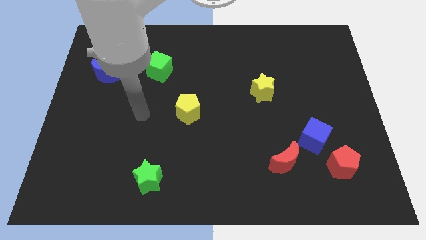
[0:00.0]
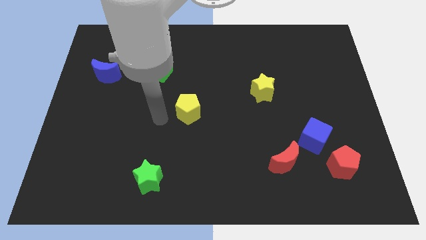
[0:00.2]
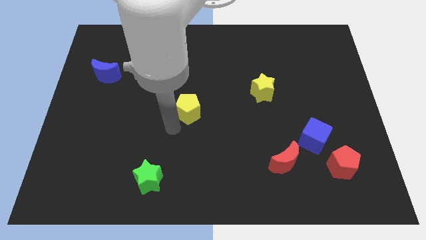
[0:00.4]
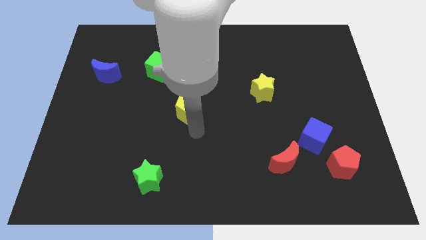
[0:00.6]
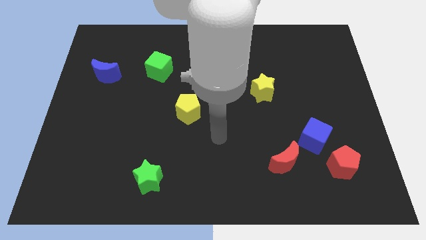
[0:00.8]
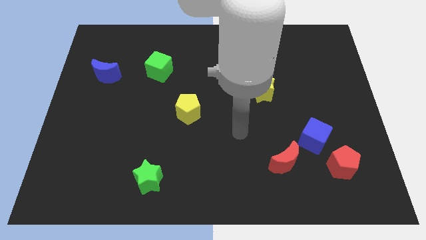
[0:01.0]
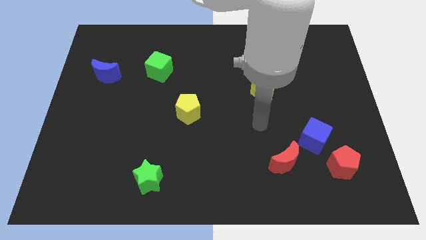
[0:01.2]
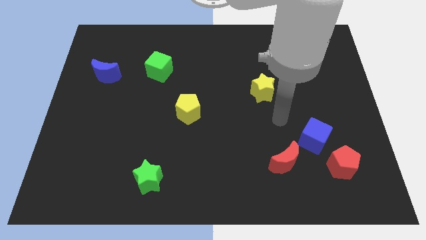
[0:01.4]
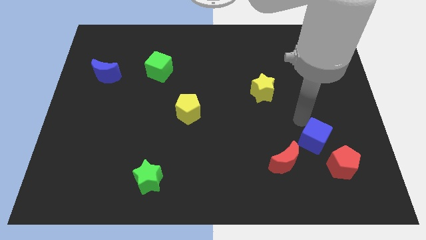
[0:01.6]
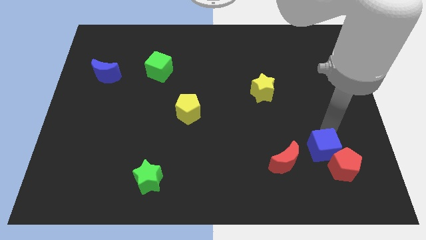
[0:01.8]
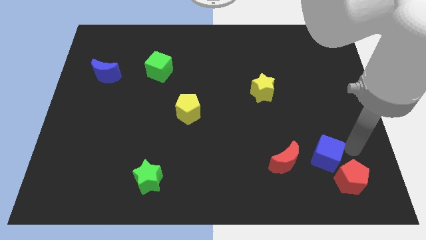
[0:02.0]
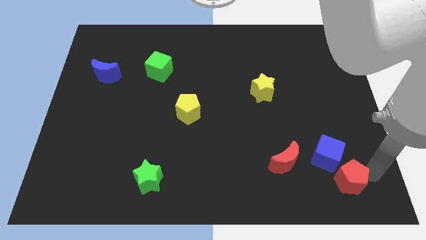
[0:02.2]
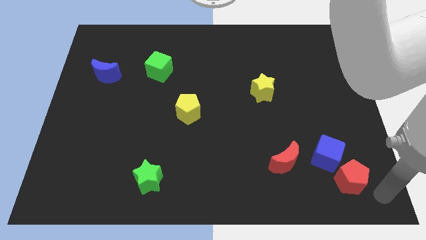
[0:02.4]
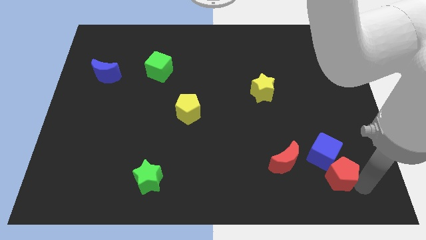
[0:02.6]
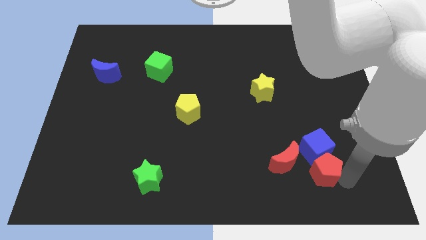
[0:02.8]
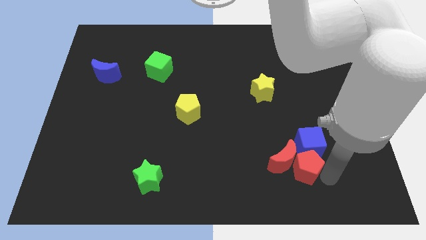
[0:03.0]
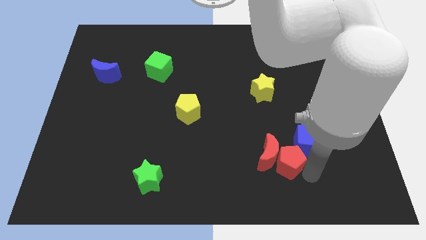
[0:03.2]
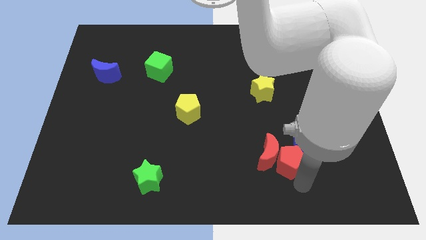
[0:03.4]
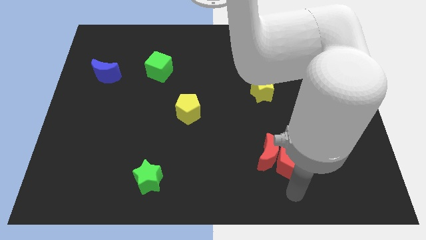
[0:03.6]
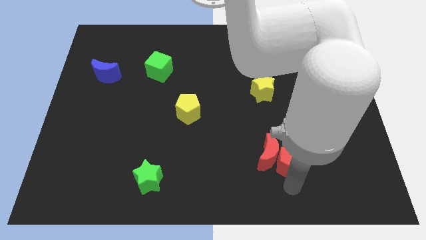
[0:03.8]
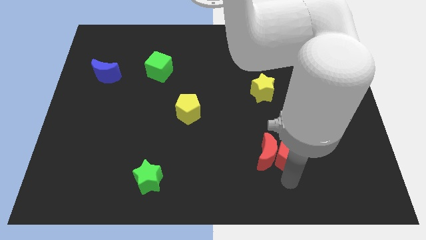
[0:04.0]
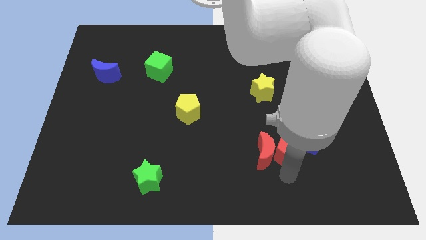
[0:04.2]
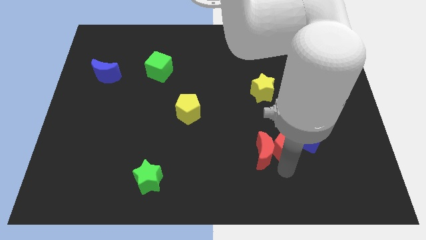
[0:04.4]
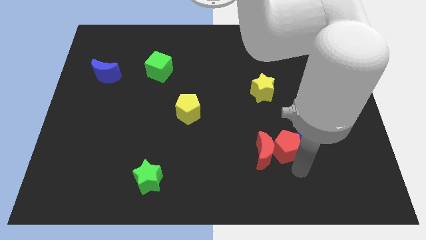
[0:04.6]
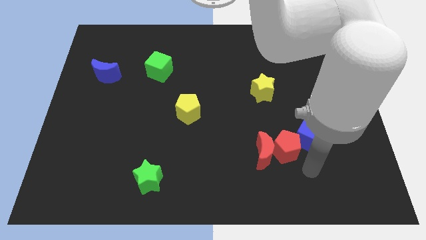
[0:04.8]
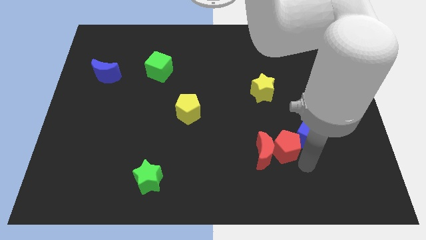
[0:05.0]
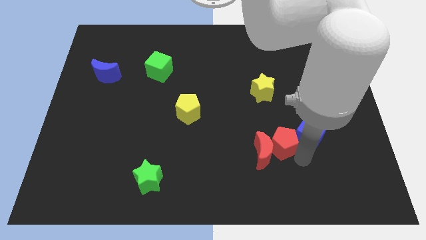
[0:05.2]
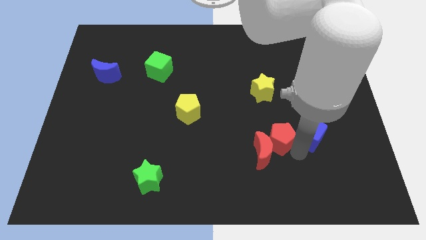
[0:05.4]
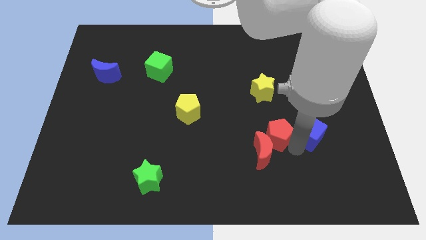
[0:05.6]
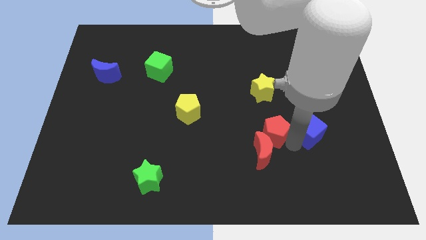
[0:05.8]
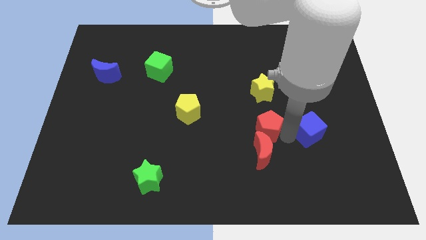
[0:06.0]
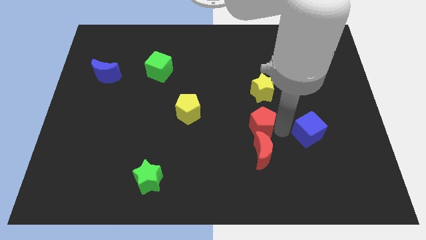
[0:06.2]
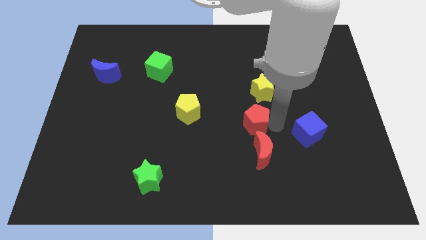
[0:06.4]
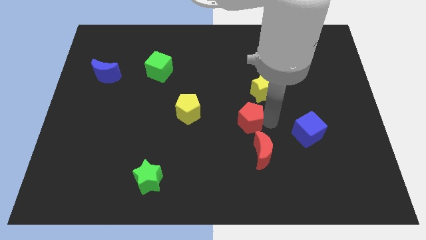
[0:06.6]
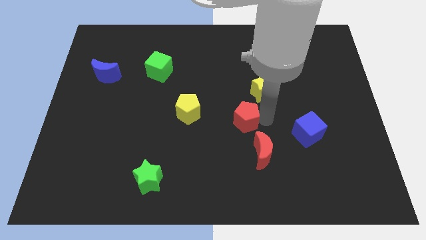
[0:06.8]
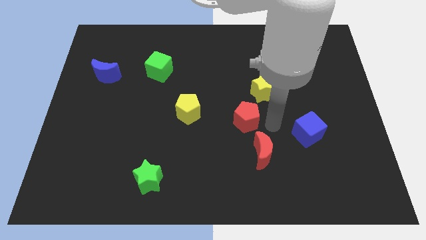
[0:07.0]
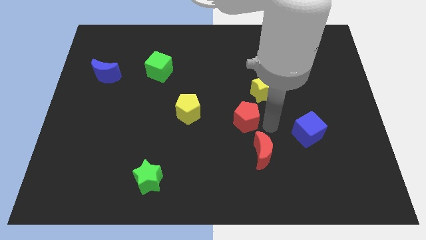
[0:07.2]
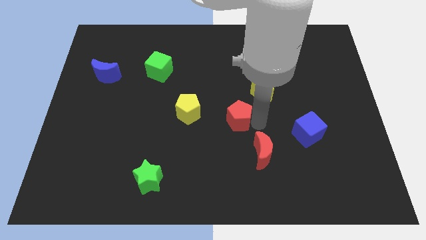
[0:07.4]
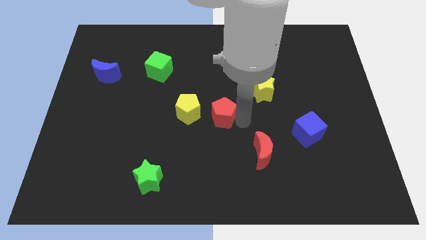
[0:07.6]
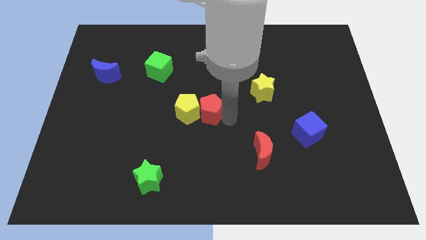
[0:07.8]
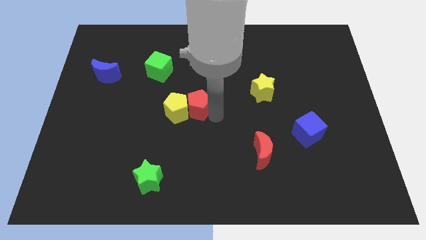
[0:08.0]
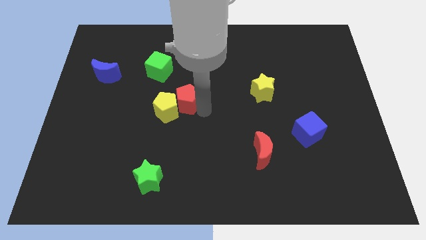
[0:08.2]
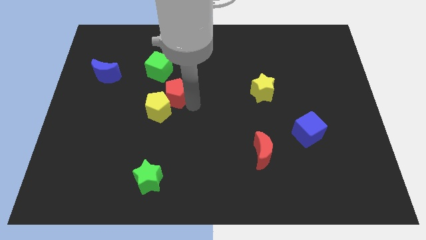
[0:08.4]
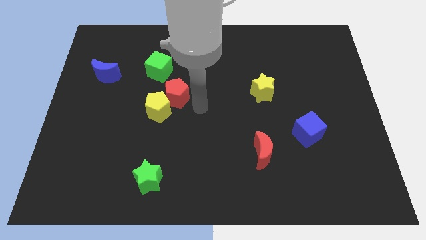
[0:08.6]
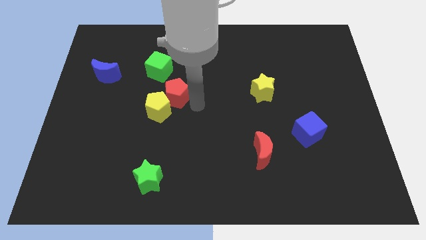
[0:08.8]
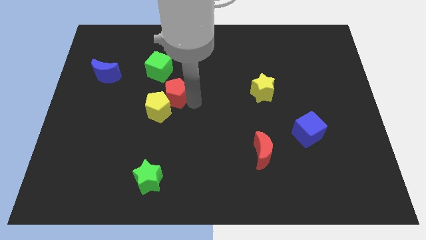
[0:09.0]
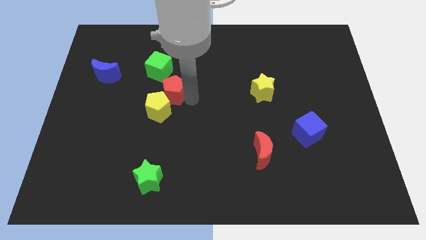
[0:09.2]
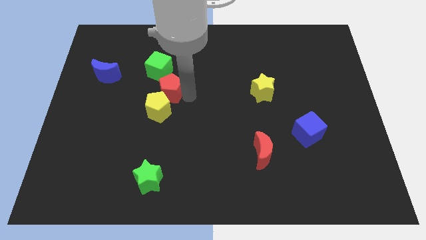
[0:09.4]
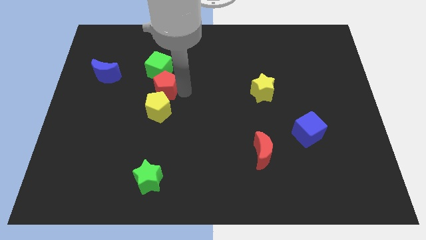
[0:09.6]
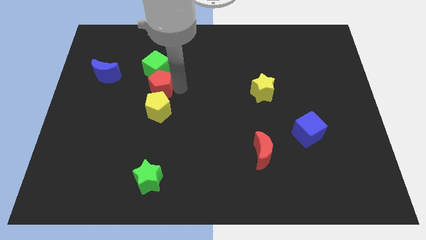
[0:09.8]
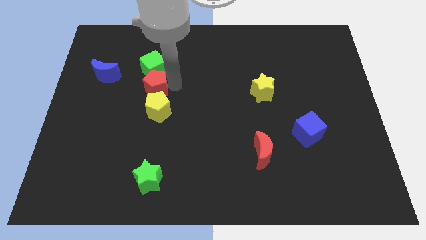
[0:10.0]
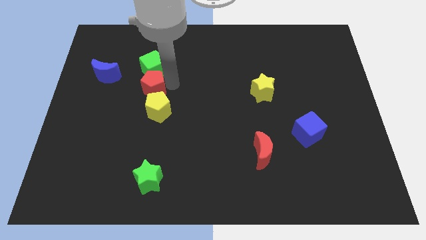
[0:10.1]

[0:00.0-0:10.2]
put the red pentagon diagonally down and to the left of the green cube

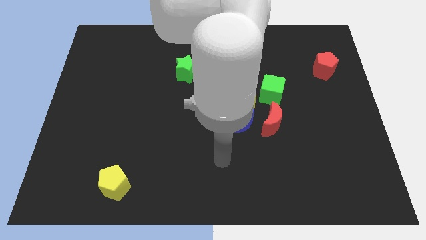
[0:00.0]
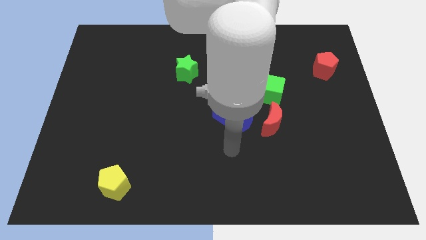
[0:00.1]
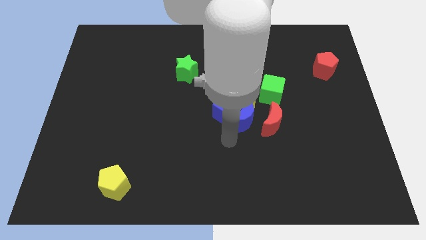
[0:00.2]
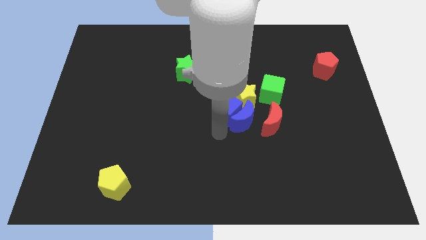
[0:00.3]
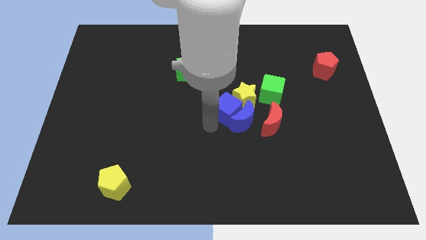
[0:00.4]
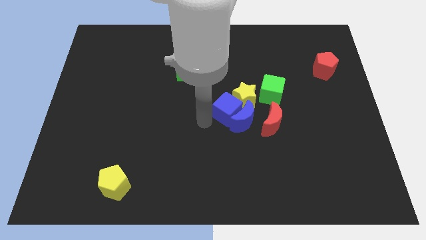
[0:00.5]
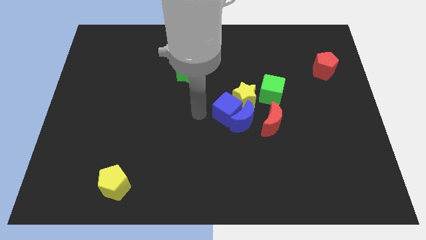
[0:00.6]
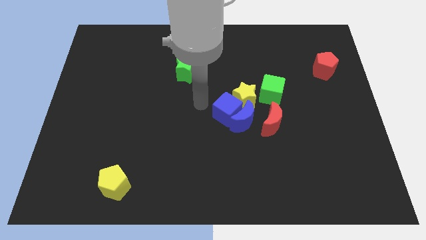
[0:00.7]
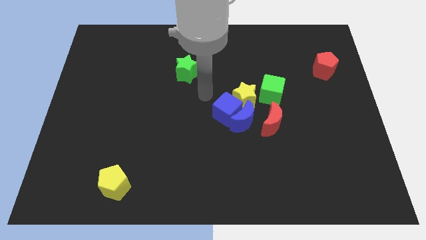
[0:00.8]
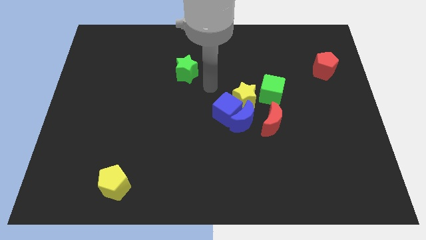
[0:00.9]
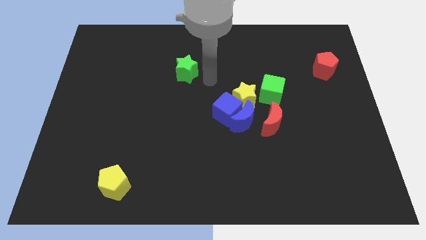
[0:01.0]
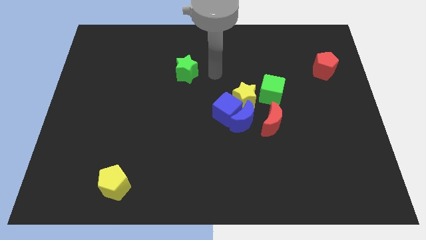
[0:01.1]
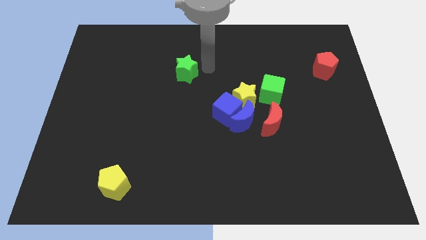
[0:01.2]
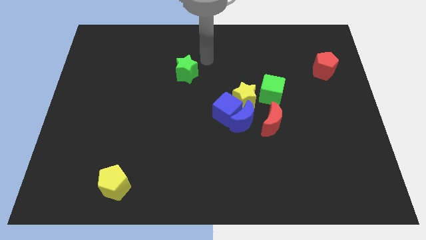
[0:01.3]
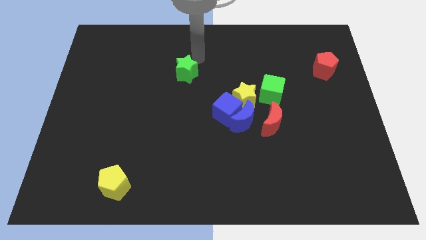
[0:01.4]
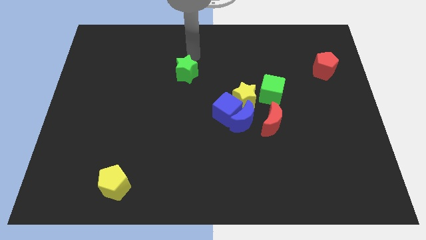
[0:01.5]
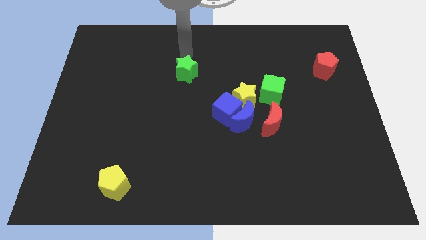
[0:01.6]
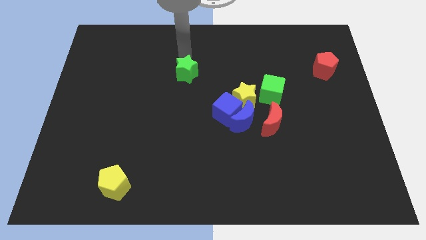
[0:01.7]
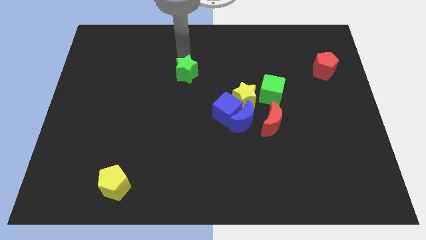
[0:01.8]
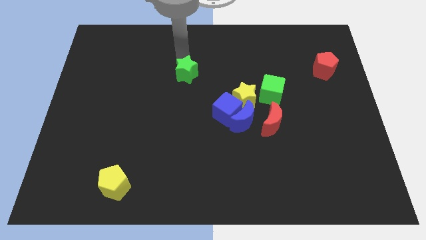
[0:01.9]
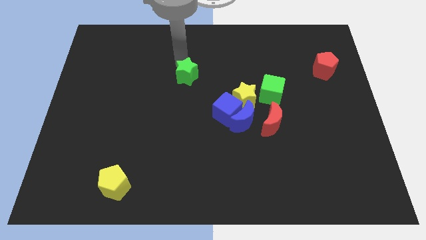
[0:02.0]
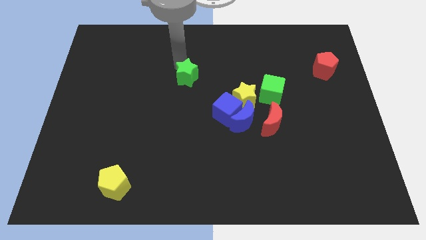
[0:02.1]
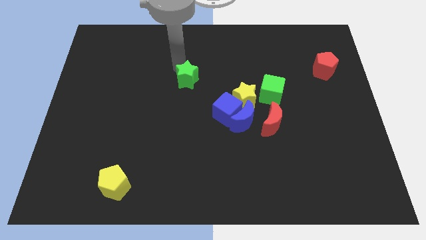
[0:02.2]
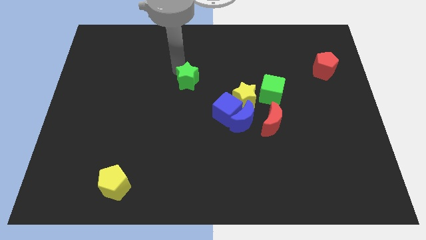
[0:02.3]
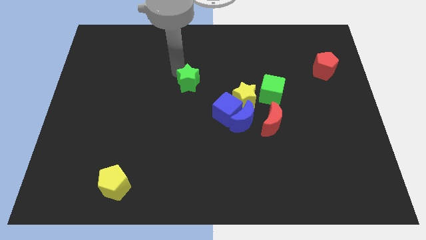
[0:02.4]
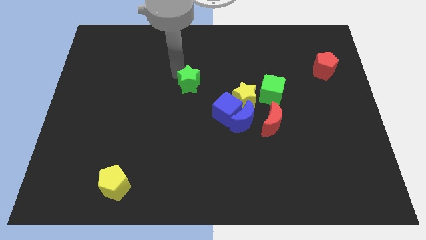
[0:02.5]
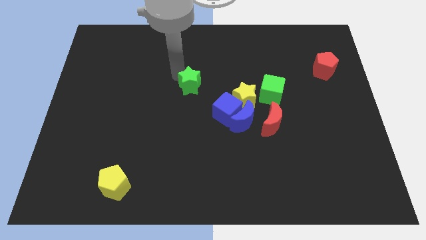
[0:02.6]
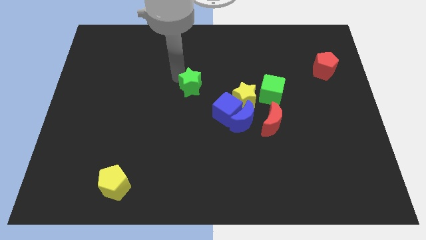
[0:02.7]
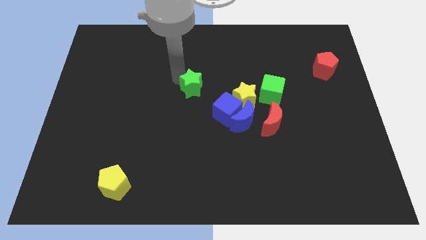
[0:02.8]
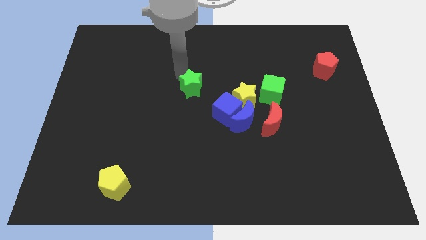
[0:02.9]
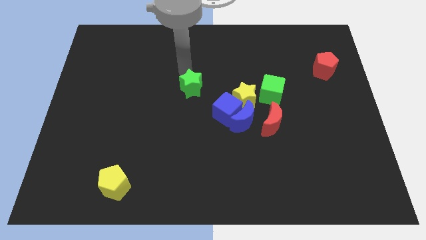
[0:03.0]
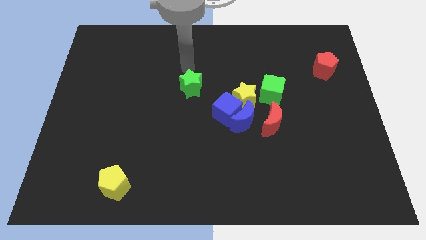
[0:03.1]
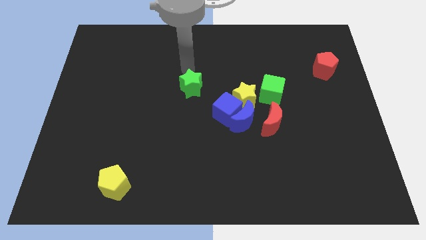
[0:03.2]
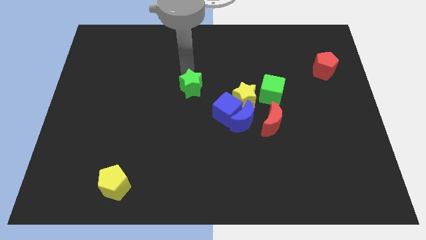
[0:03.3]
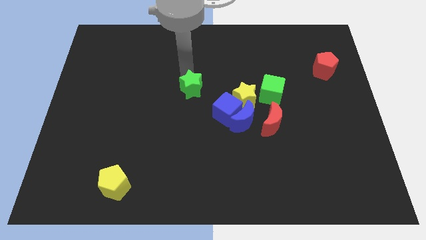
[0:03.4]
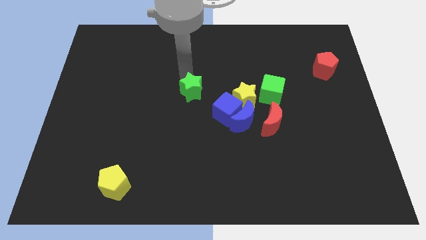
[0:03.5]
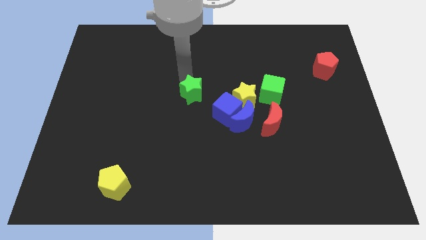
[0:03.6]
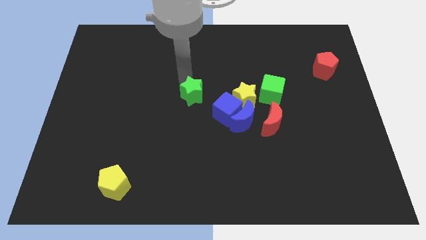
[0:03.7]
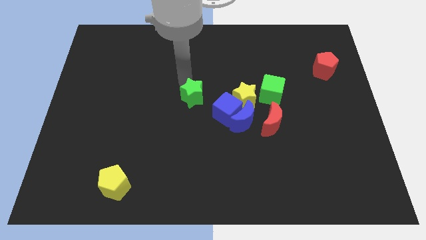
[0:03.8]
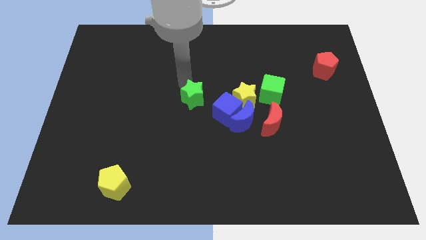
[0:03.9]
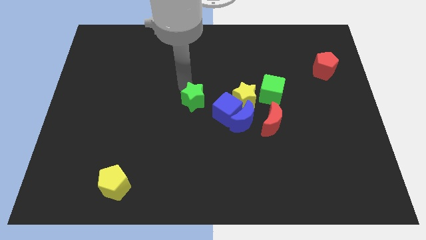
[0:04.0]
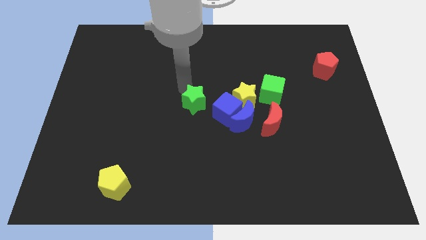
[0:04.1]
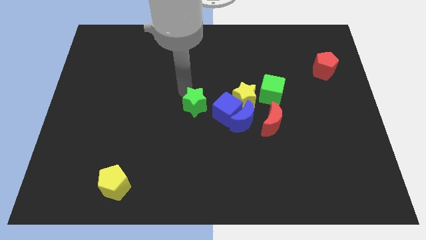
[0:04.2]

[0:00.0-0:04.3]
put the green star to the left of the blue moon
